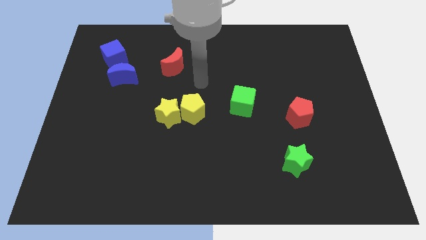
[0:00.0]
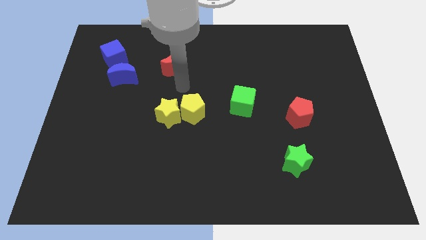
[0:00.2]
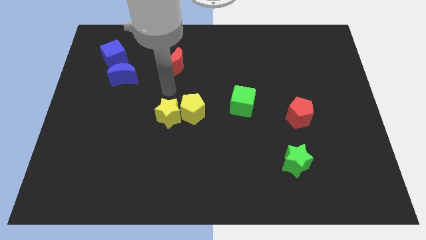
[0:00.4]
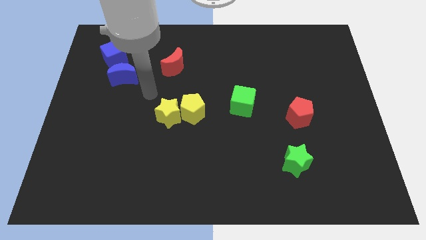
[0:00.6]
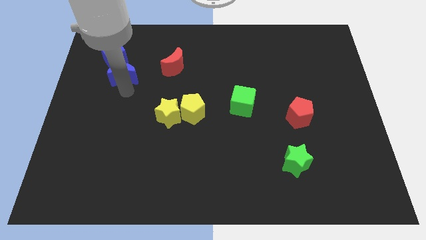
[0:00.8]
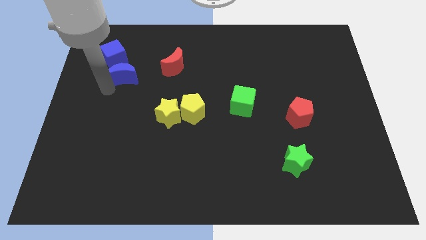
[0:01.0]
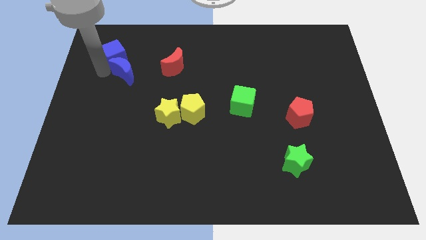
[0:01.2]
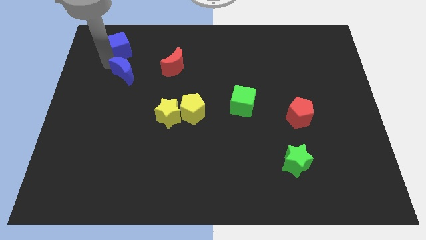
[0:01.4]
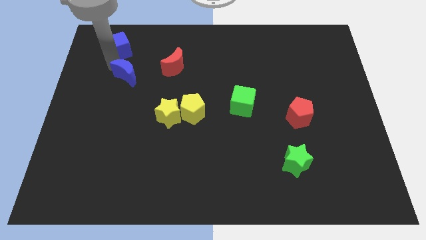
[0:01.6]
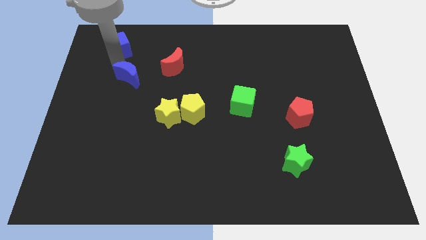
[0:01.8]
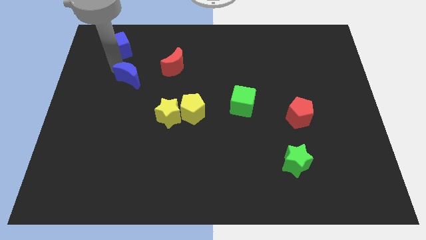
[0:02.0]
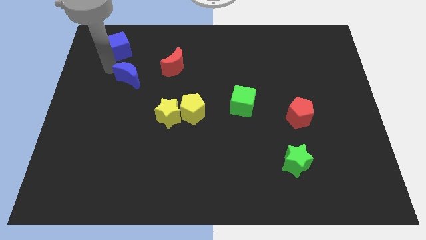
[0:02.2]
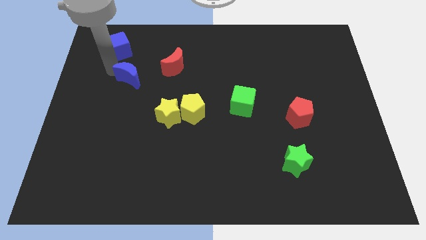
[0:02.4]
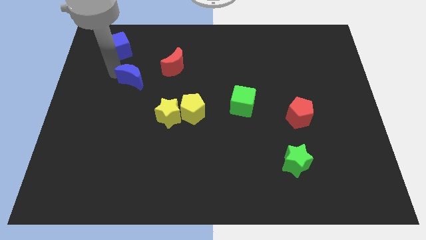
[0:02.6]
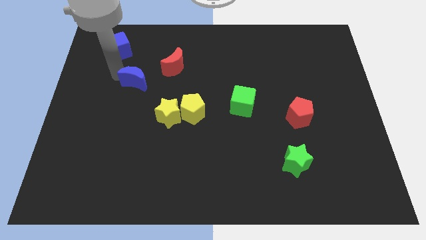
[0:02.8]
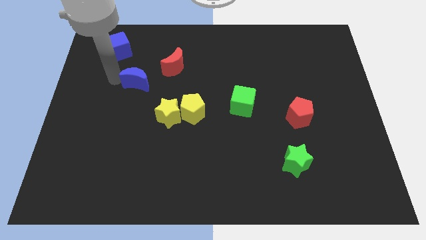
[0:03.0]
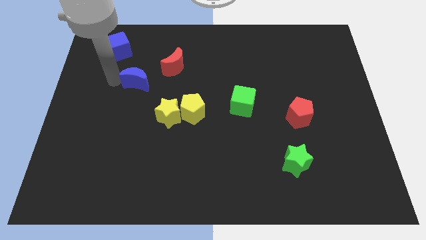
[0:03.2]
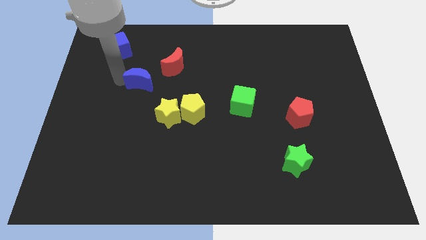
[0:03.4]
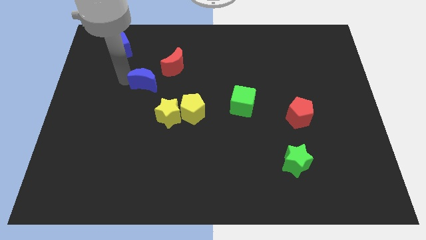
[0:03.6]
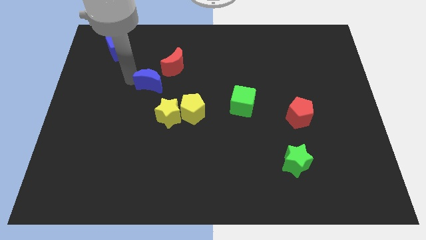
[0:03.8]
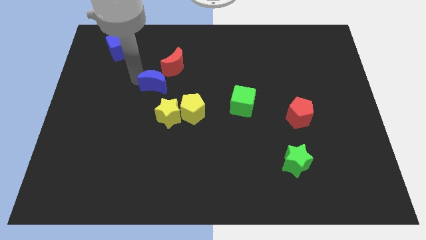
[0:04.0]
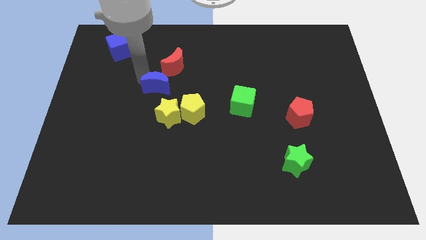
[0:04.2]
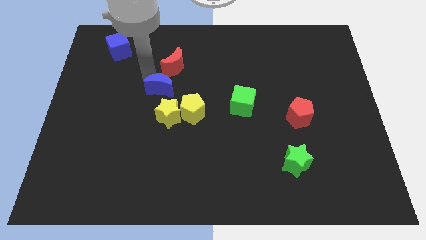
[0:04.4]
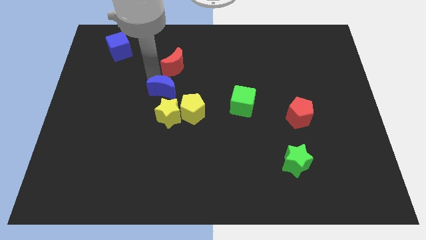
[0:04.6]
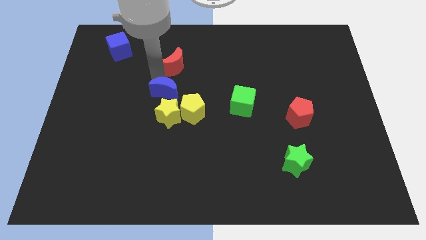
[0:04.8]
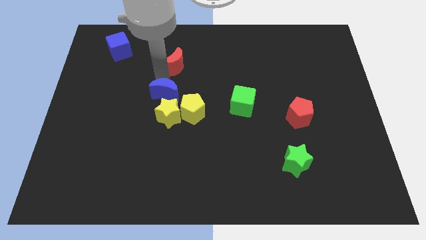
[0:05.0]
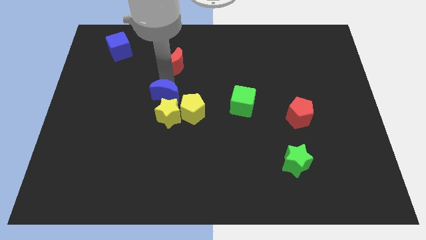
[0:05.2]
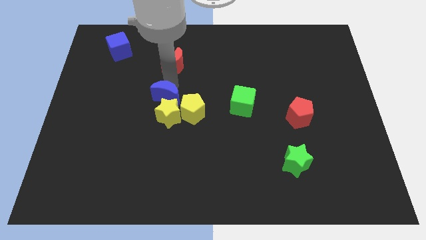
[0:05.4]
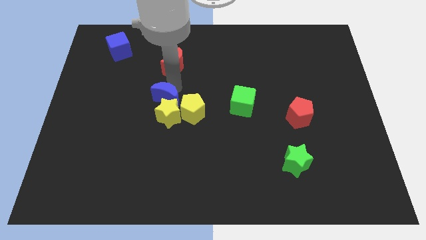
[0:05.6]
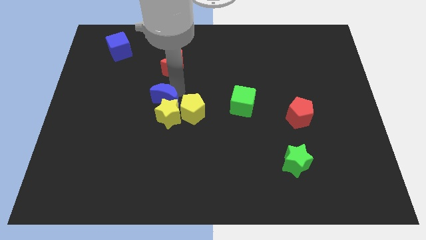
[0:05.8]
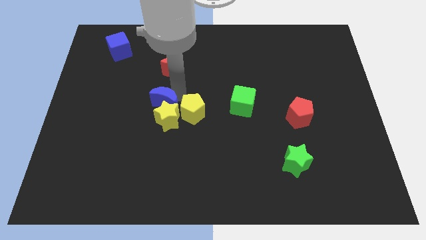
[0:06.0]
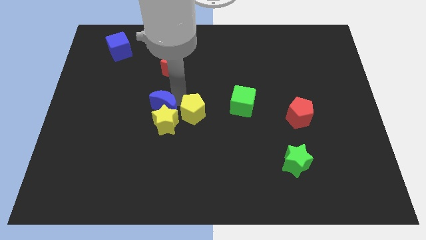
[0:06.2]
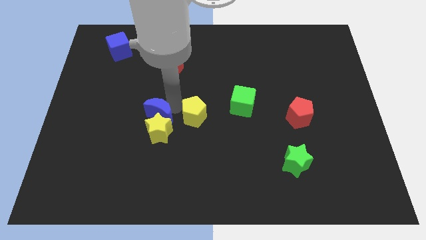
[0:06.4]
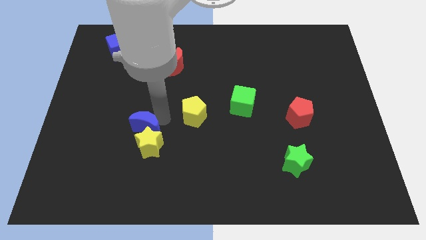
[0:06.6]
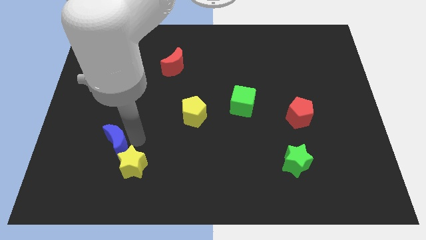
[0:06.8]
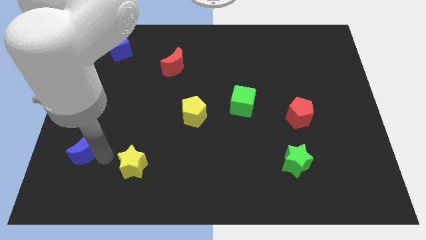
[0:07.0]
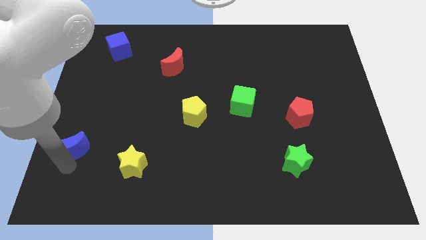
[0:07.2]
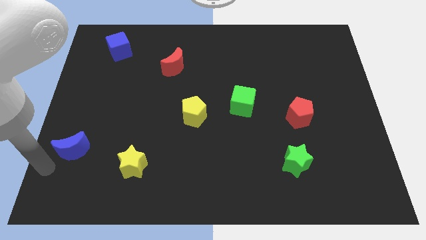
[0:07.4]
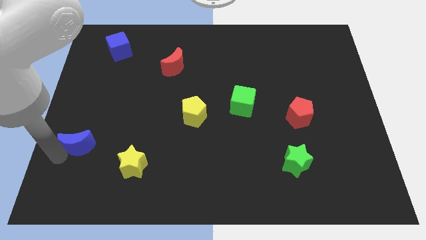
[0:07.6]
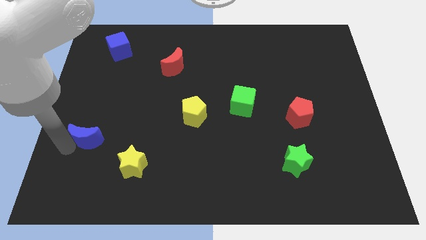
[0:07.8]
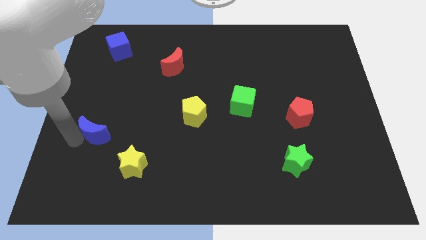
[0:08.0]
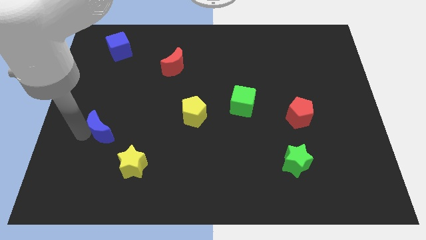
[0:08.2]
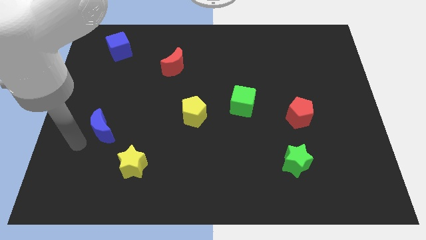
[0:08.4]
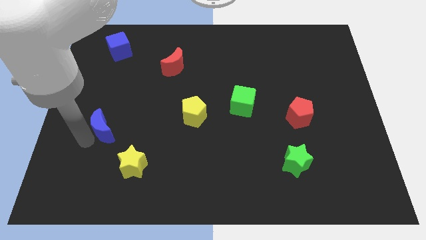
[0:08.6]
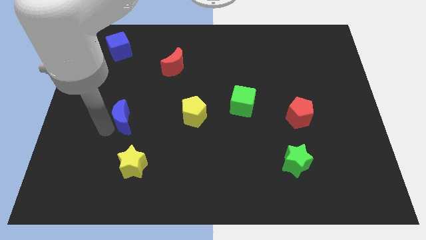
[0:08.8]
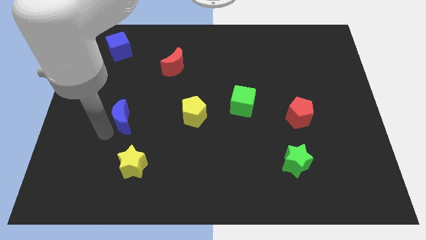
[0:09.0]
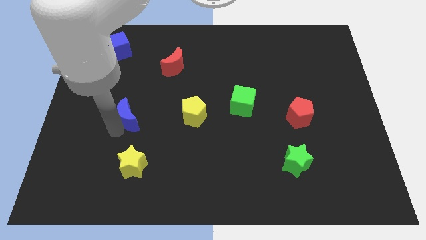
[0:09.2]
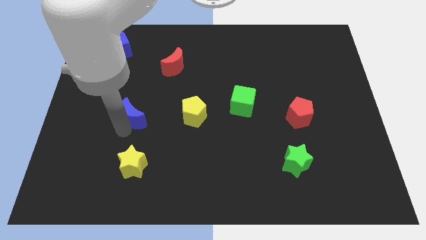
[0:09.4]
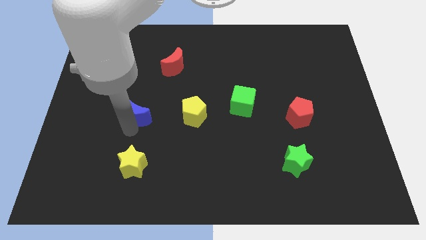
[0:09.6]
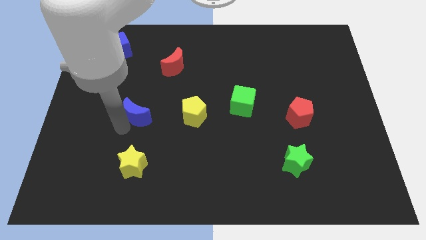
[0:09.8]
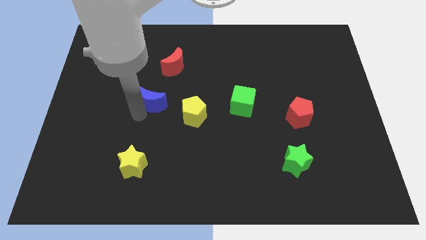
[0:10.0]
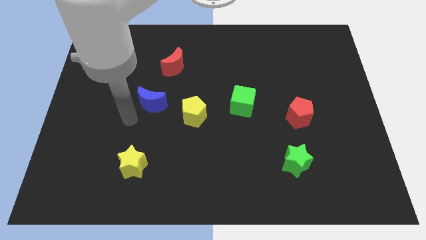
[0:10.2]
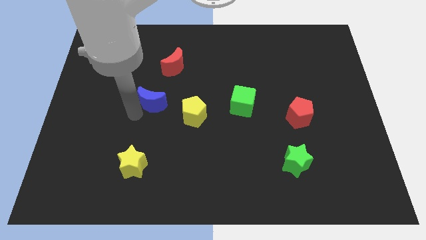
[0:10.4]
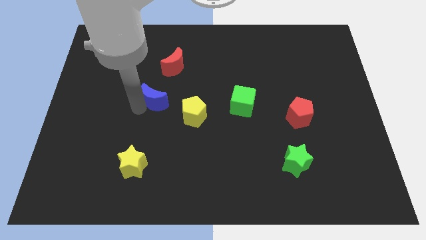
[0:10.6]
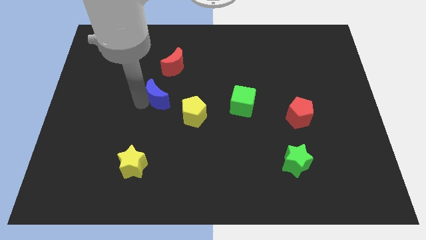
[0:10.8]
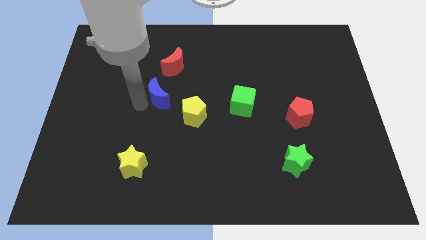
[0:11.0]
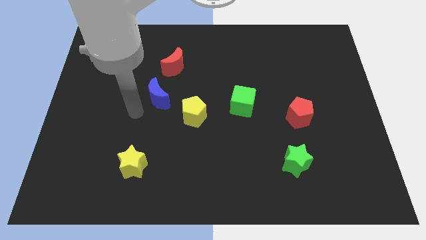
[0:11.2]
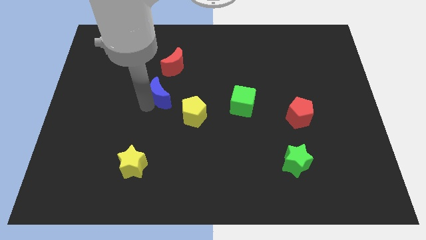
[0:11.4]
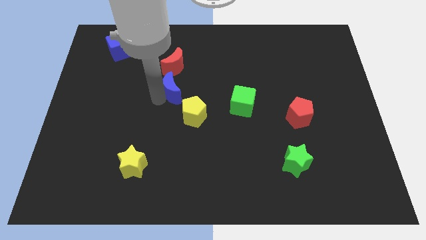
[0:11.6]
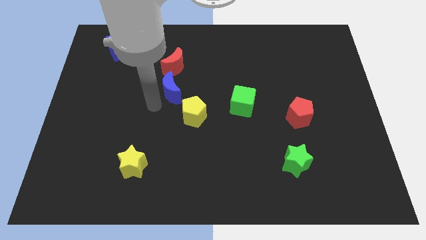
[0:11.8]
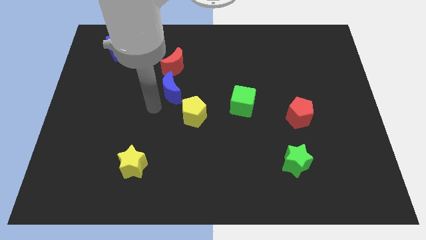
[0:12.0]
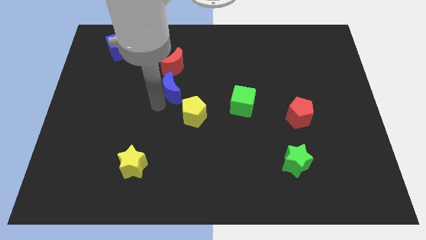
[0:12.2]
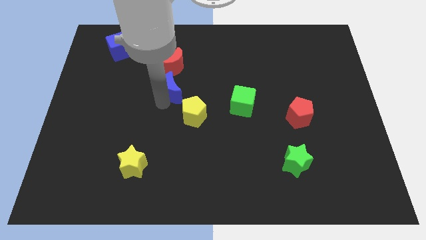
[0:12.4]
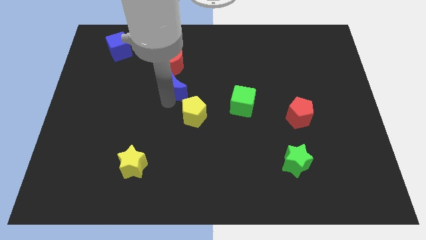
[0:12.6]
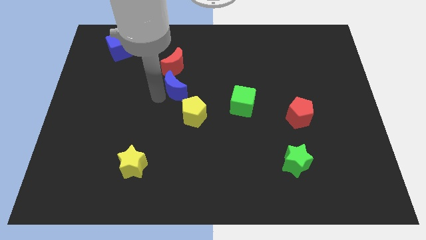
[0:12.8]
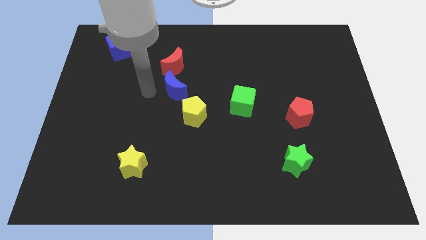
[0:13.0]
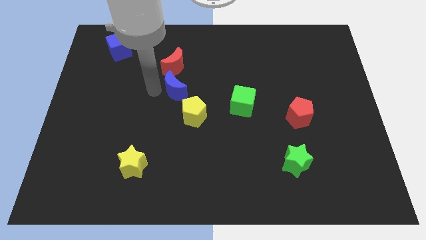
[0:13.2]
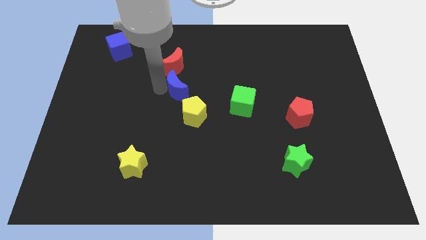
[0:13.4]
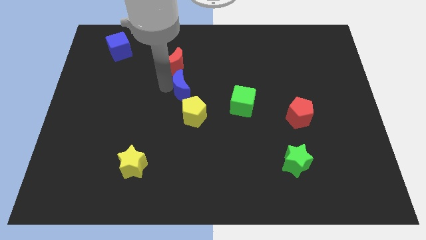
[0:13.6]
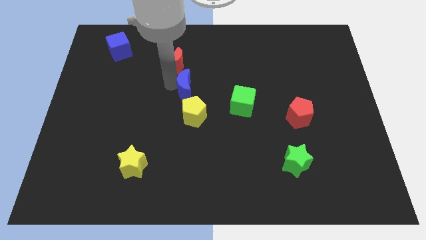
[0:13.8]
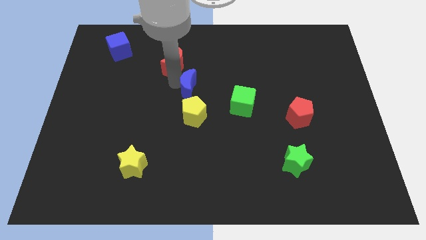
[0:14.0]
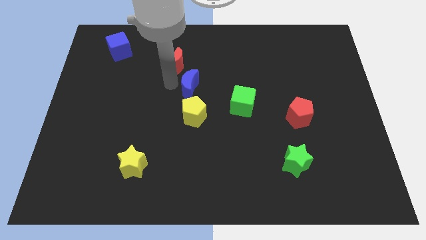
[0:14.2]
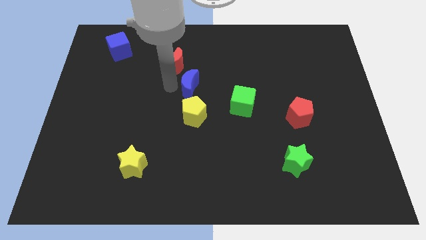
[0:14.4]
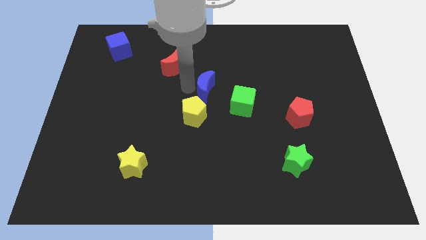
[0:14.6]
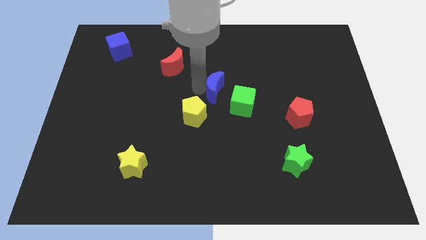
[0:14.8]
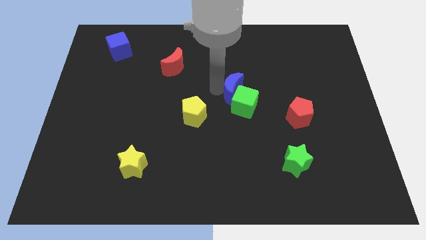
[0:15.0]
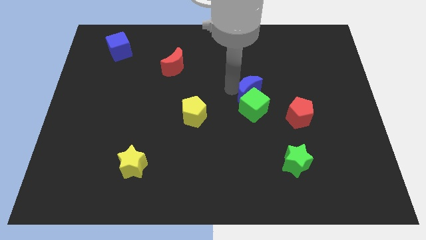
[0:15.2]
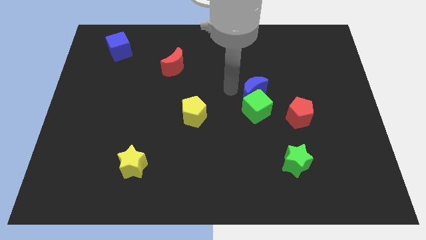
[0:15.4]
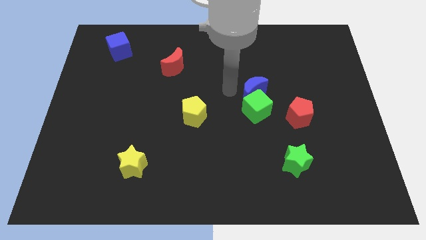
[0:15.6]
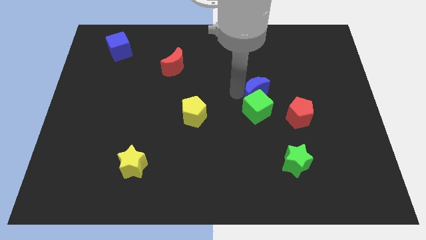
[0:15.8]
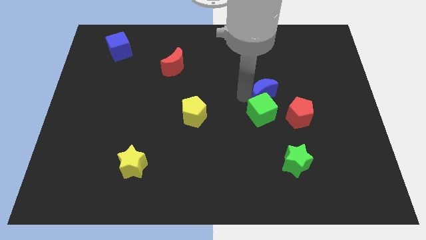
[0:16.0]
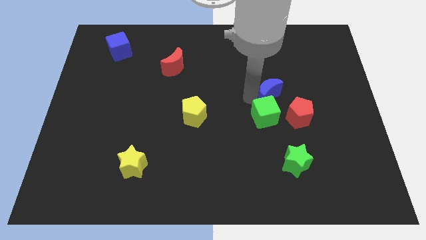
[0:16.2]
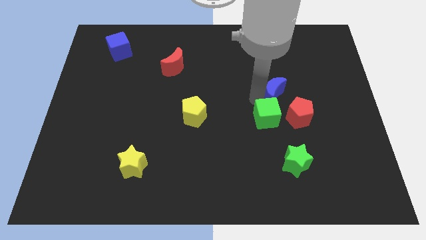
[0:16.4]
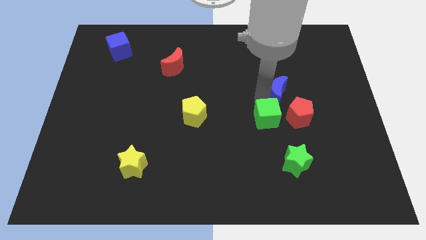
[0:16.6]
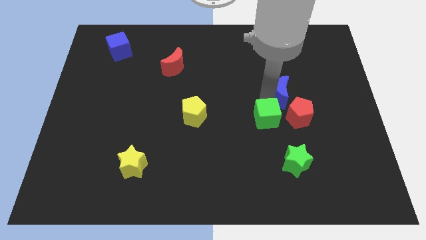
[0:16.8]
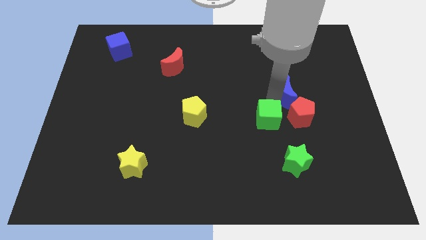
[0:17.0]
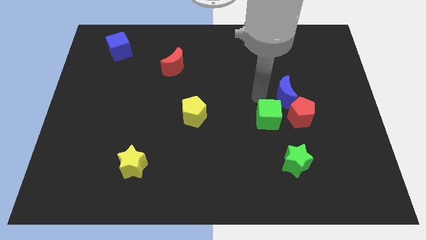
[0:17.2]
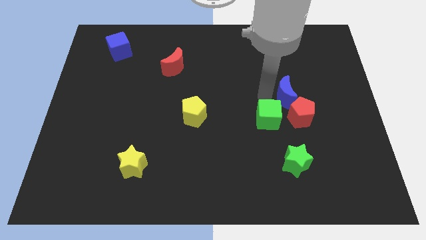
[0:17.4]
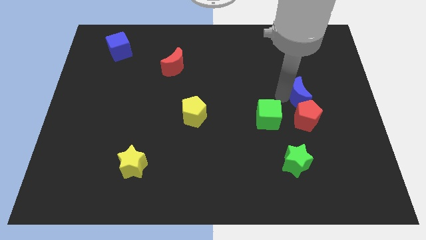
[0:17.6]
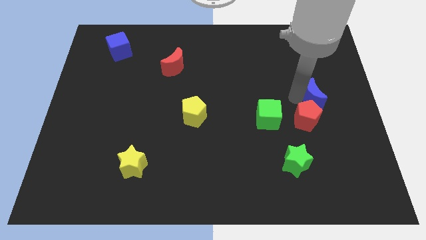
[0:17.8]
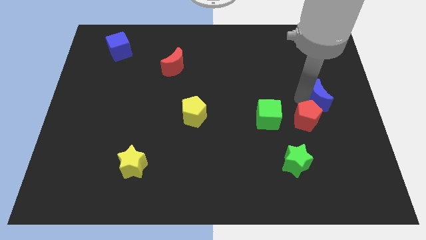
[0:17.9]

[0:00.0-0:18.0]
push the blue moon to the center right
